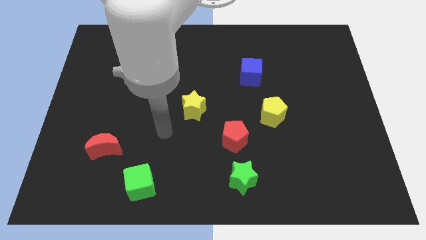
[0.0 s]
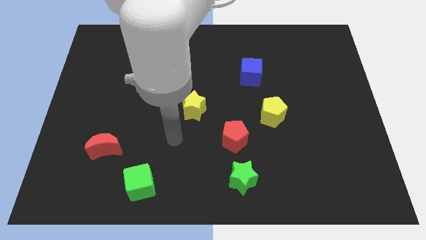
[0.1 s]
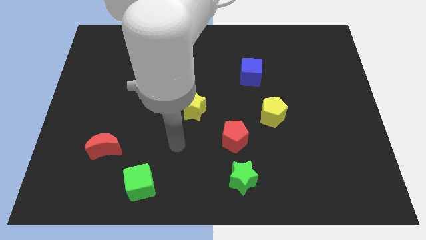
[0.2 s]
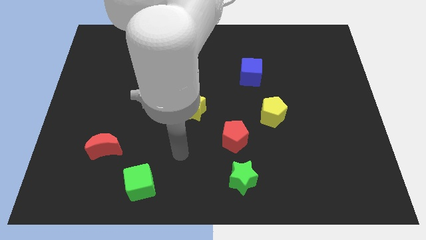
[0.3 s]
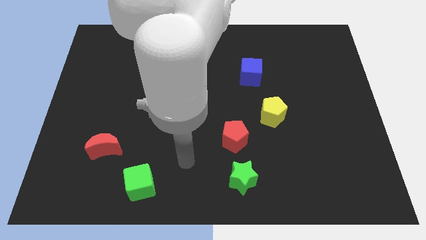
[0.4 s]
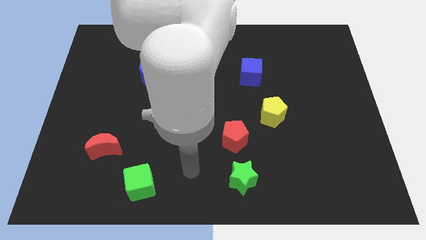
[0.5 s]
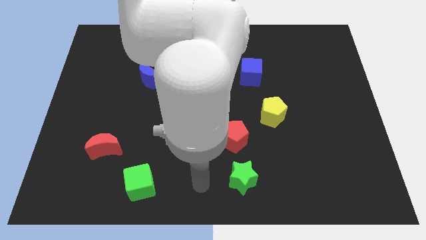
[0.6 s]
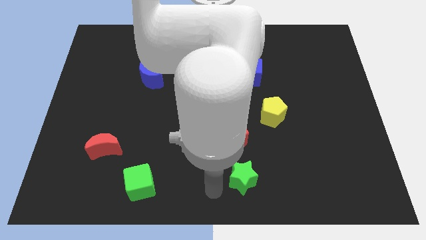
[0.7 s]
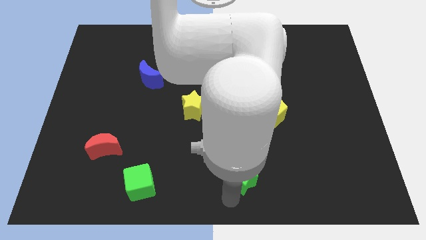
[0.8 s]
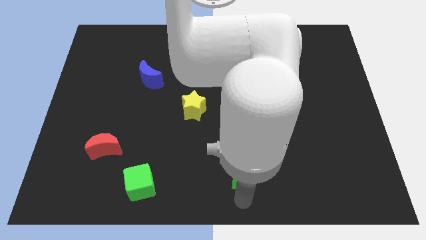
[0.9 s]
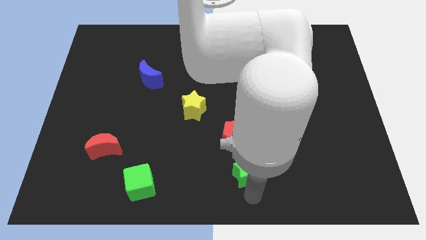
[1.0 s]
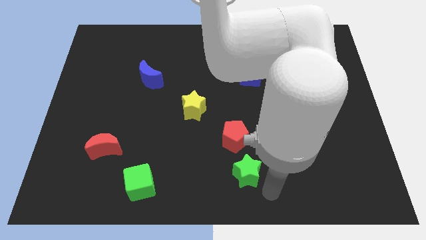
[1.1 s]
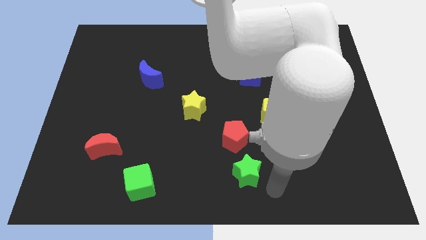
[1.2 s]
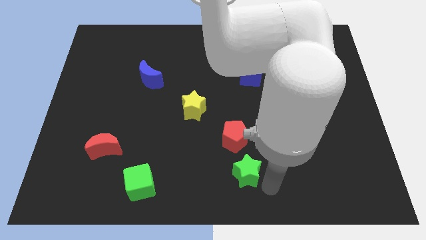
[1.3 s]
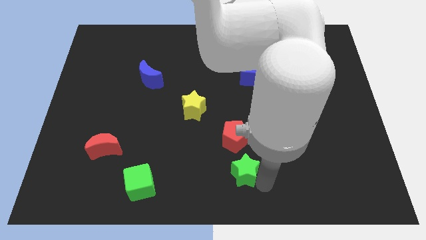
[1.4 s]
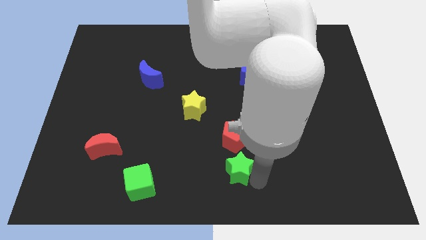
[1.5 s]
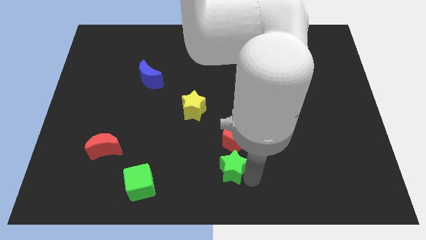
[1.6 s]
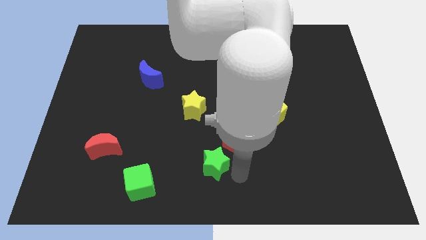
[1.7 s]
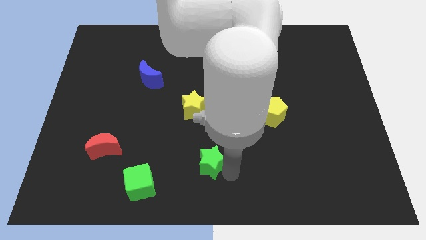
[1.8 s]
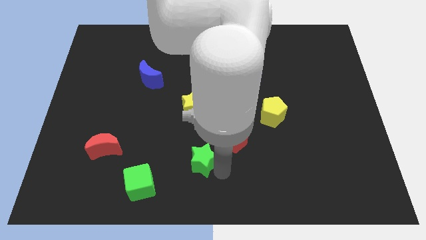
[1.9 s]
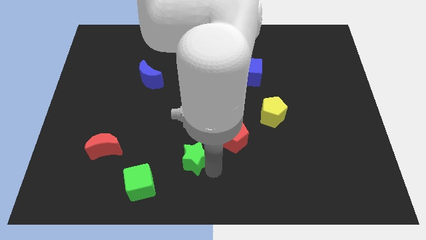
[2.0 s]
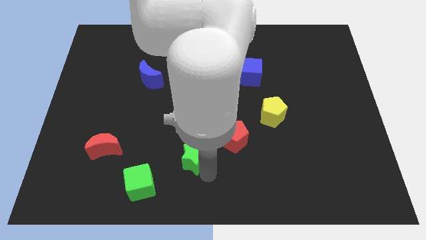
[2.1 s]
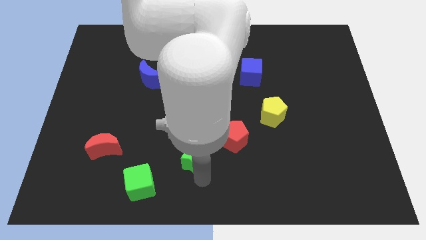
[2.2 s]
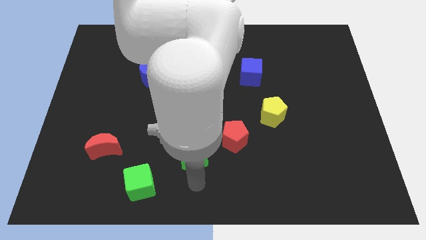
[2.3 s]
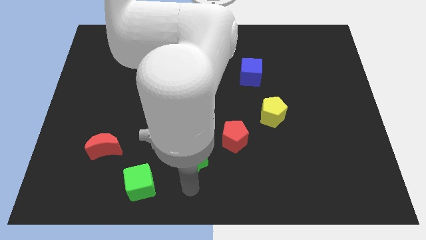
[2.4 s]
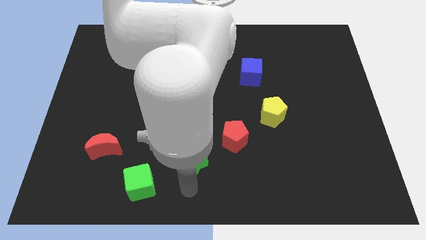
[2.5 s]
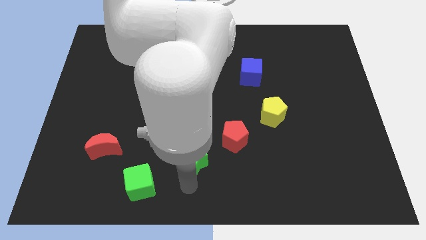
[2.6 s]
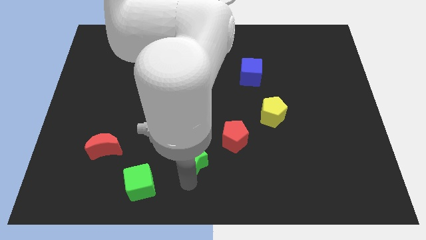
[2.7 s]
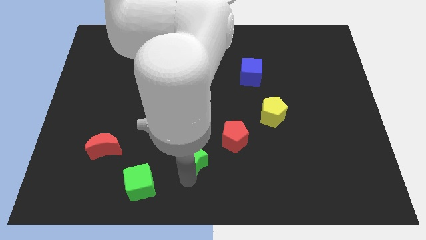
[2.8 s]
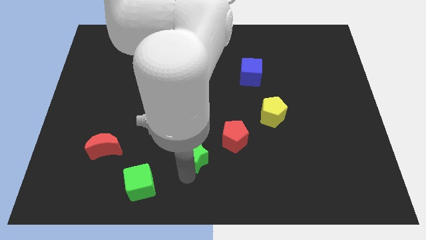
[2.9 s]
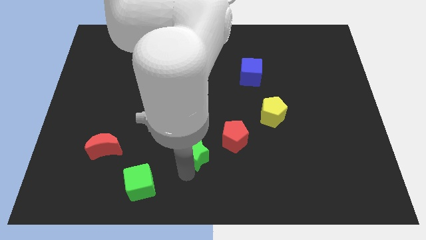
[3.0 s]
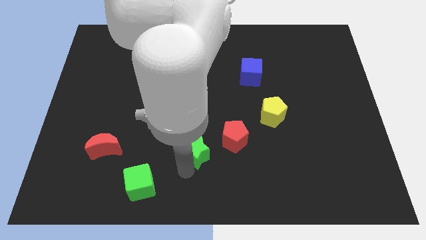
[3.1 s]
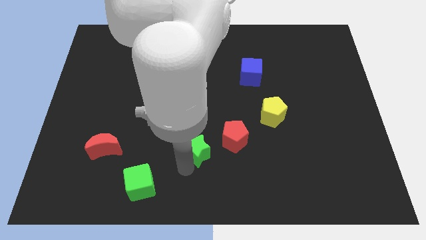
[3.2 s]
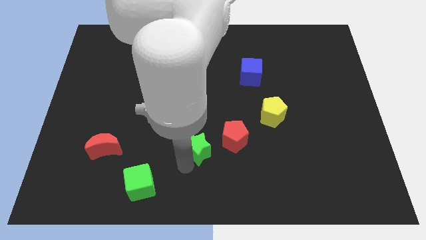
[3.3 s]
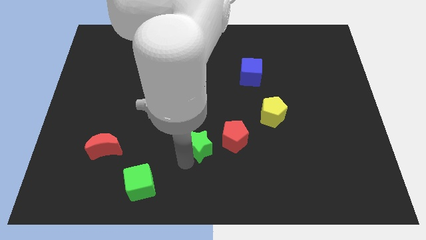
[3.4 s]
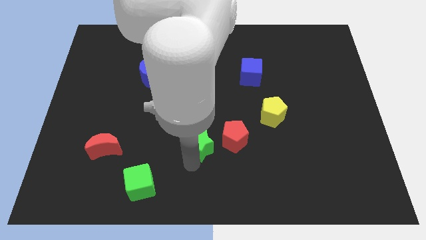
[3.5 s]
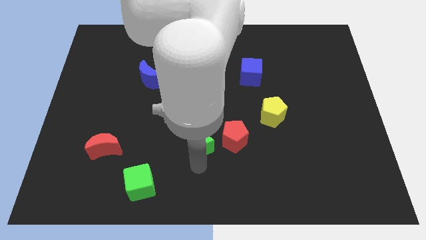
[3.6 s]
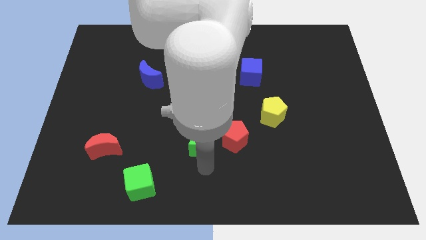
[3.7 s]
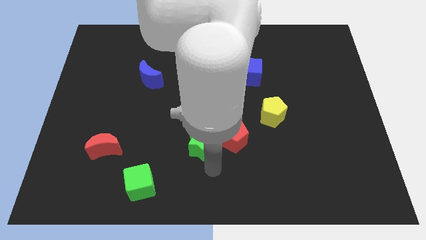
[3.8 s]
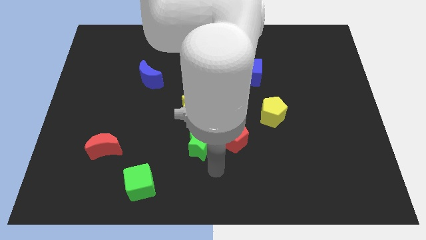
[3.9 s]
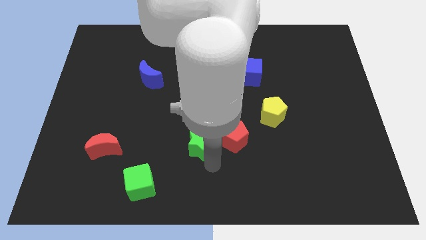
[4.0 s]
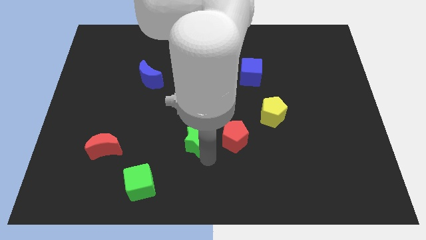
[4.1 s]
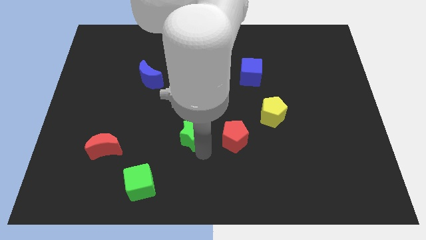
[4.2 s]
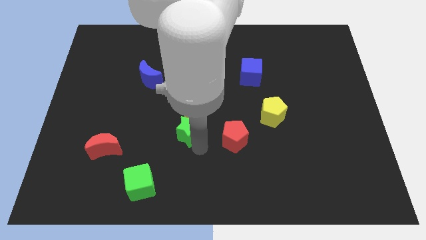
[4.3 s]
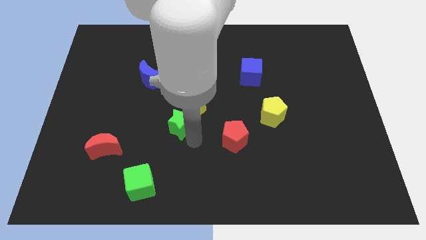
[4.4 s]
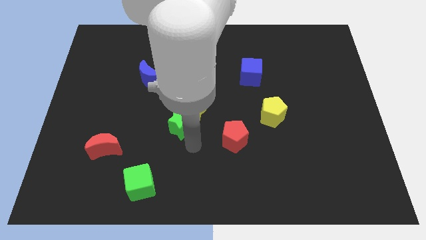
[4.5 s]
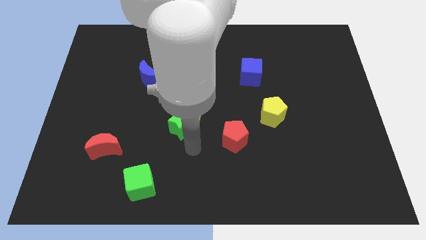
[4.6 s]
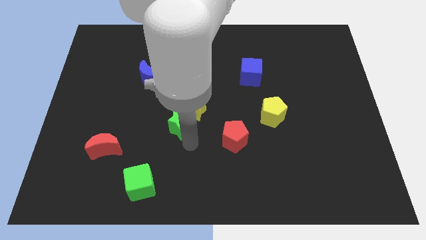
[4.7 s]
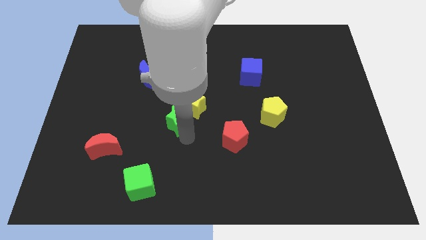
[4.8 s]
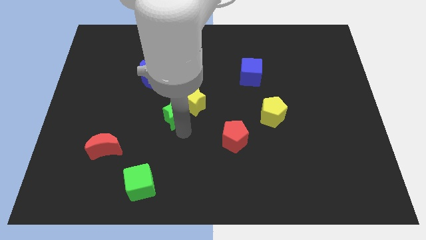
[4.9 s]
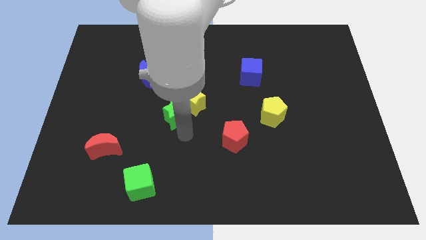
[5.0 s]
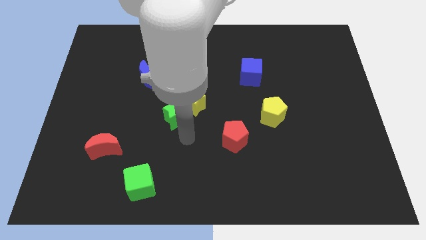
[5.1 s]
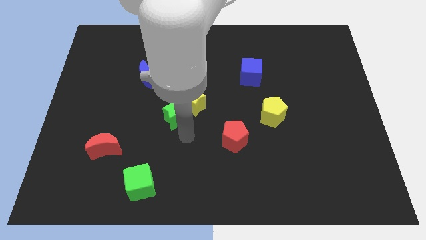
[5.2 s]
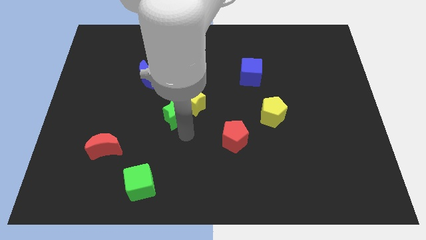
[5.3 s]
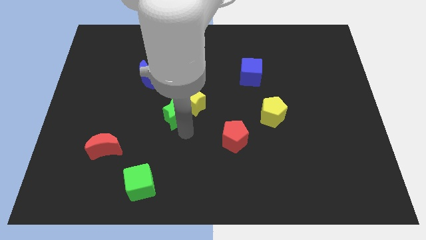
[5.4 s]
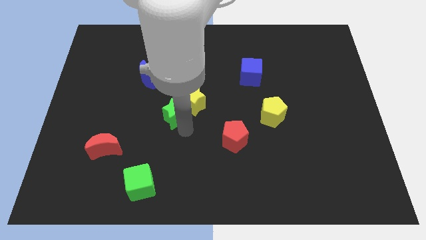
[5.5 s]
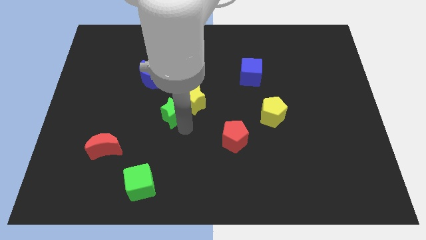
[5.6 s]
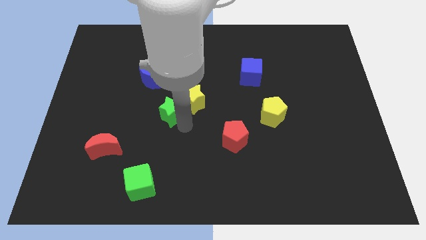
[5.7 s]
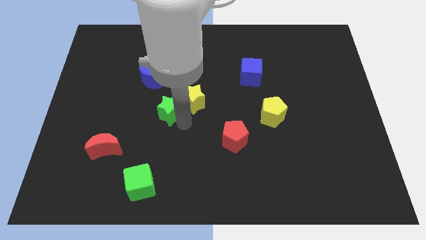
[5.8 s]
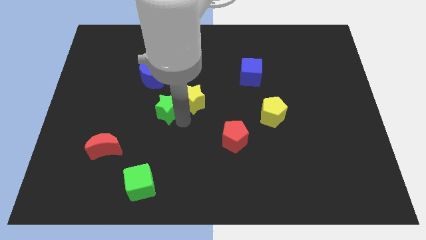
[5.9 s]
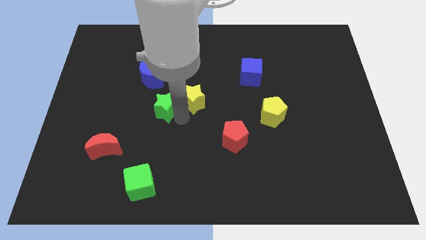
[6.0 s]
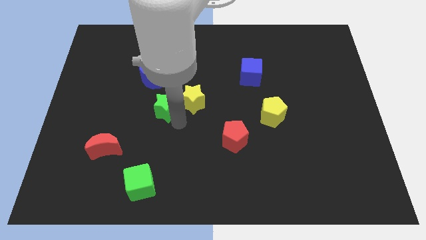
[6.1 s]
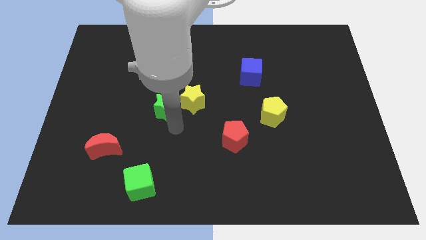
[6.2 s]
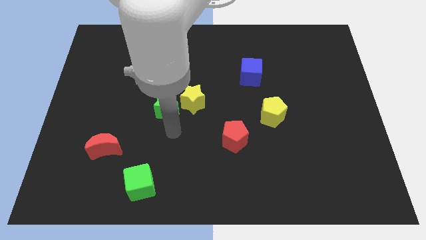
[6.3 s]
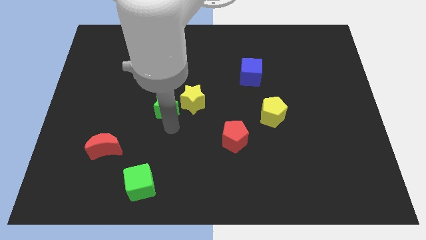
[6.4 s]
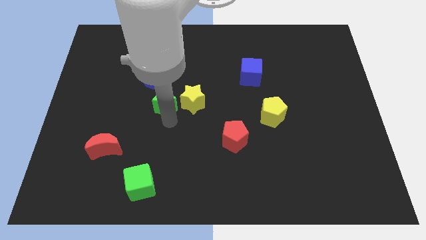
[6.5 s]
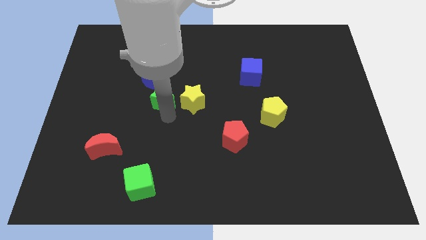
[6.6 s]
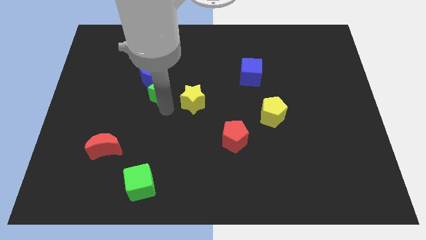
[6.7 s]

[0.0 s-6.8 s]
move the green star to the blue moon
